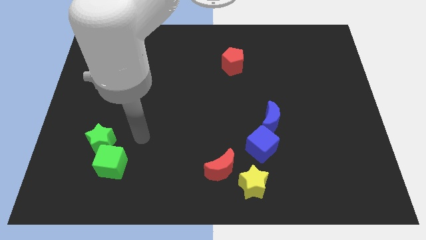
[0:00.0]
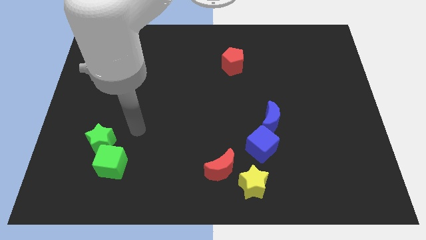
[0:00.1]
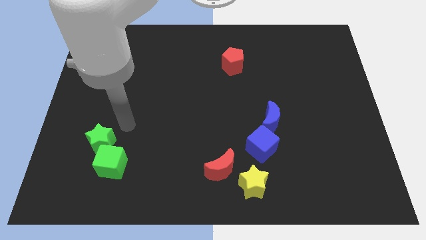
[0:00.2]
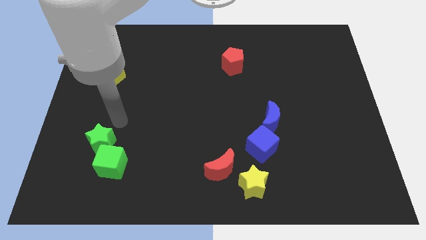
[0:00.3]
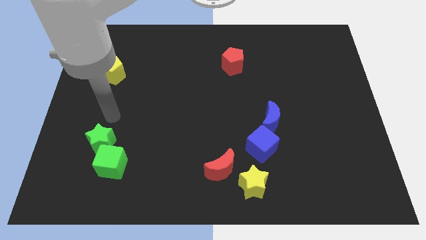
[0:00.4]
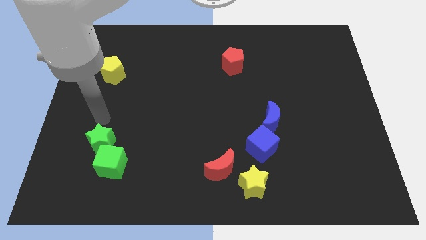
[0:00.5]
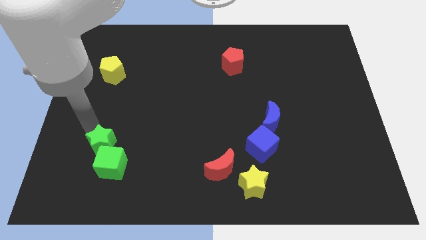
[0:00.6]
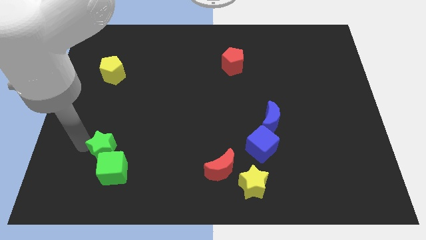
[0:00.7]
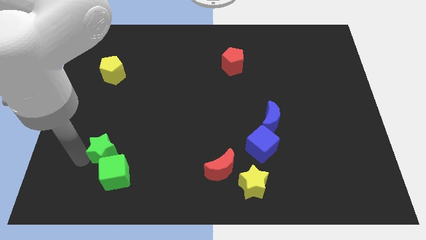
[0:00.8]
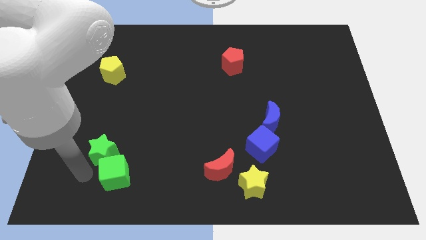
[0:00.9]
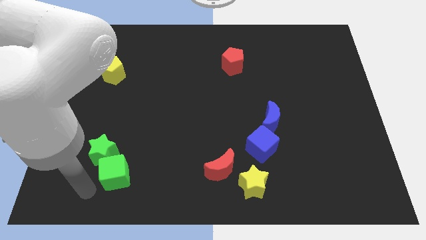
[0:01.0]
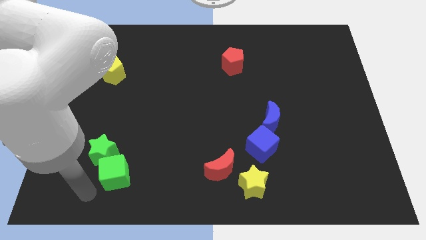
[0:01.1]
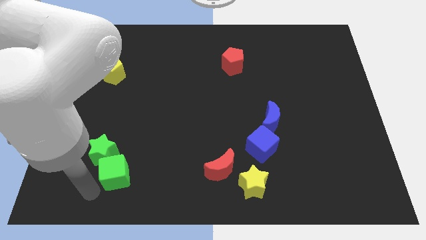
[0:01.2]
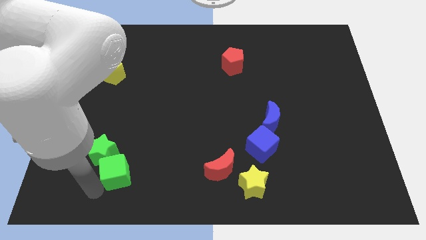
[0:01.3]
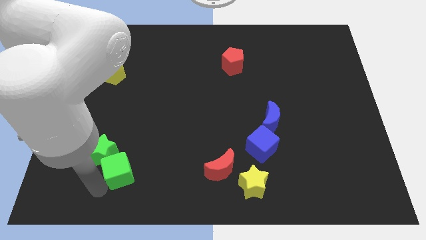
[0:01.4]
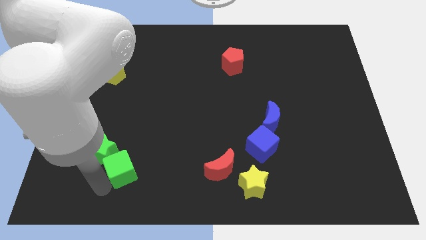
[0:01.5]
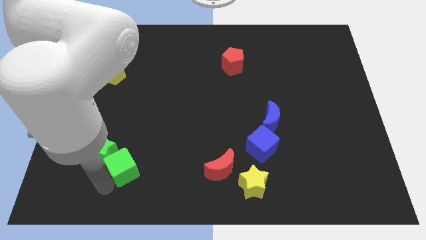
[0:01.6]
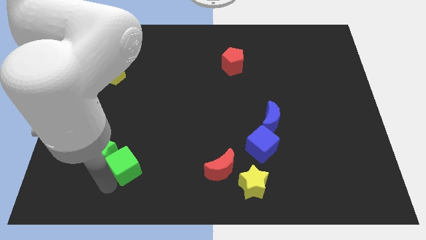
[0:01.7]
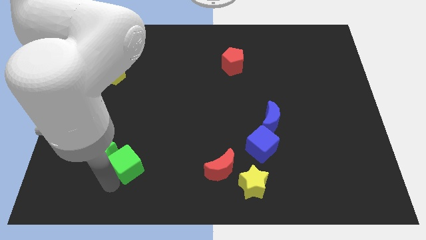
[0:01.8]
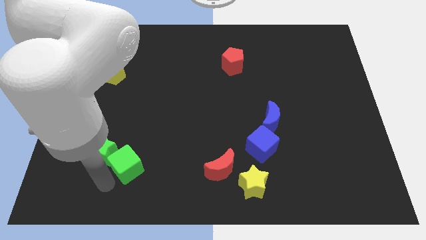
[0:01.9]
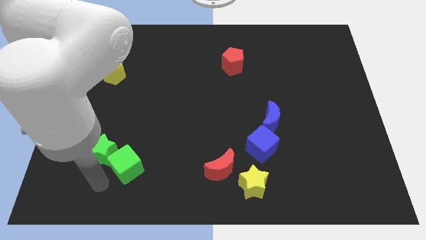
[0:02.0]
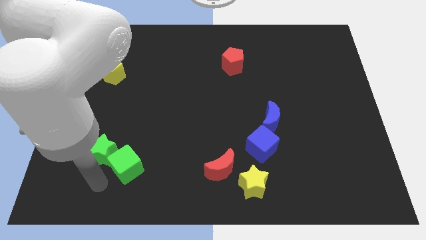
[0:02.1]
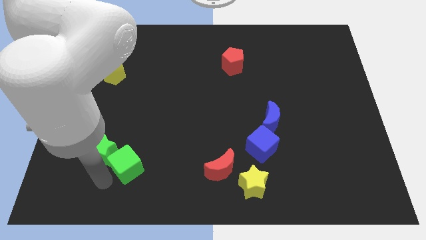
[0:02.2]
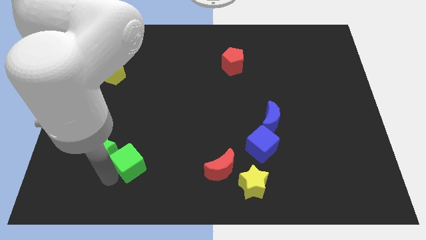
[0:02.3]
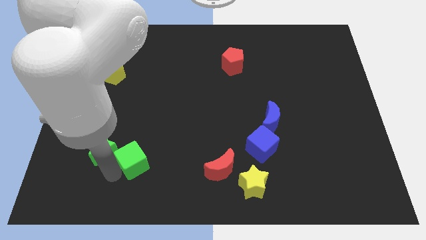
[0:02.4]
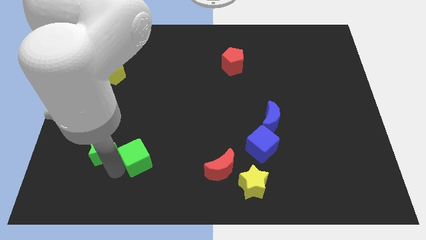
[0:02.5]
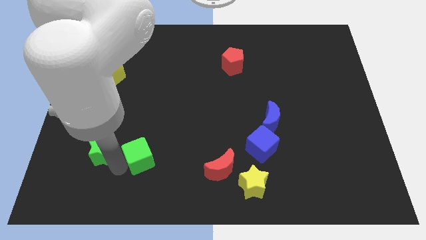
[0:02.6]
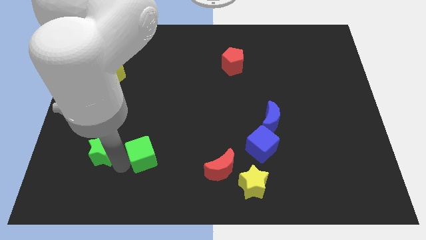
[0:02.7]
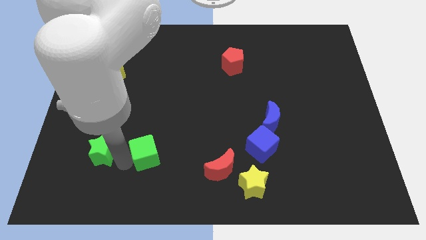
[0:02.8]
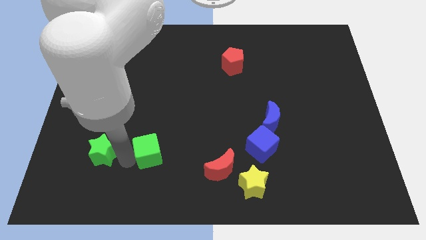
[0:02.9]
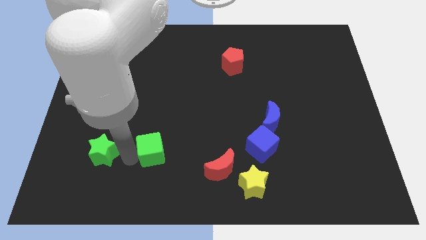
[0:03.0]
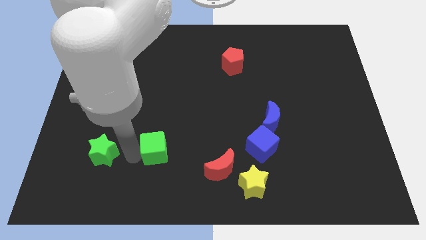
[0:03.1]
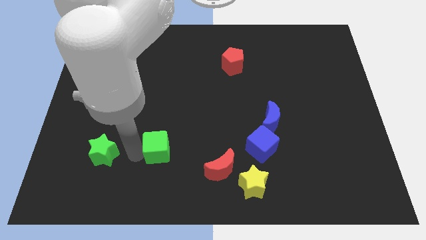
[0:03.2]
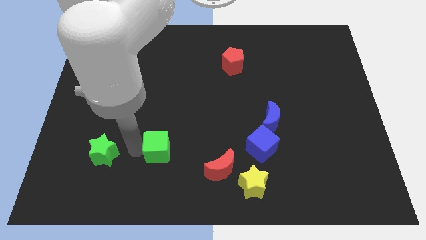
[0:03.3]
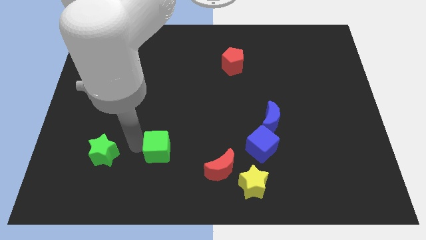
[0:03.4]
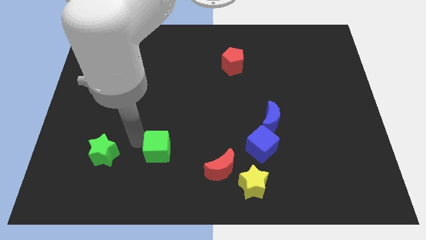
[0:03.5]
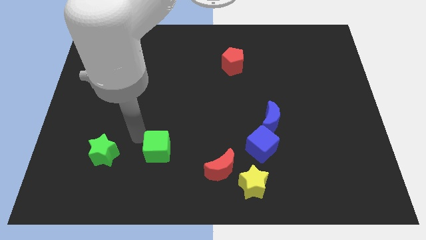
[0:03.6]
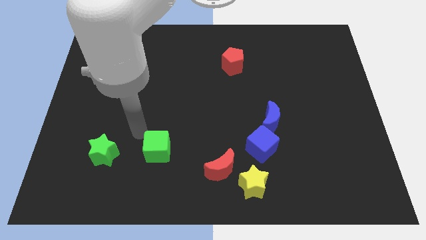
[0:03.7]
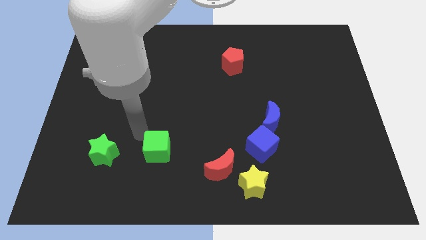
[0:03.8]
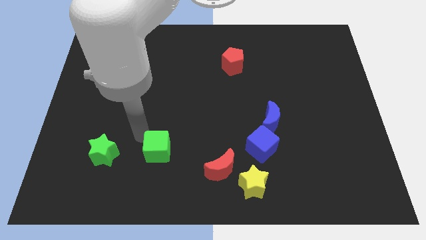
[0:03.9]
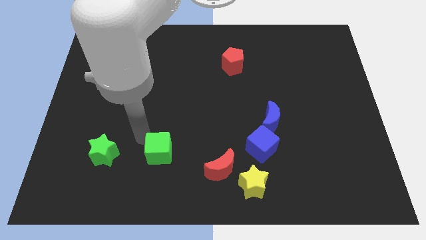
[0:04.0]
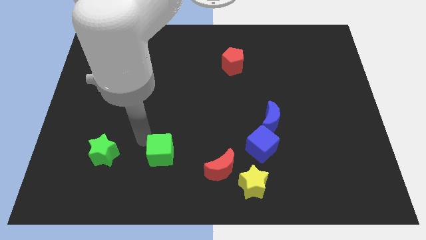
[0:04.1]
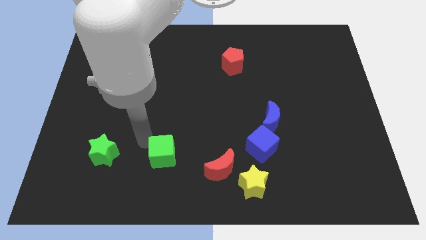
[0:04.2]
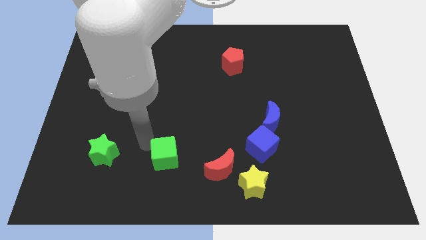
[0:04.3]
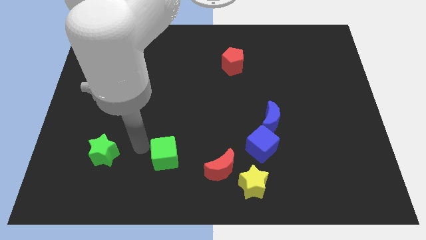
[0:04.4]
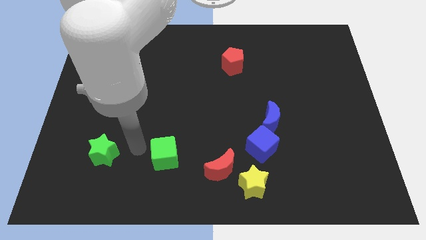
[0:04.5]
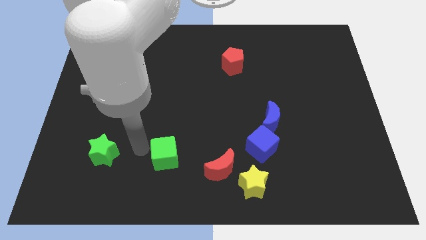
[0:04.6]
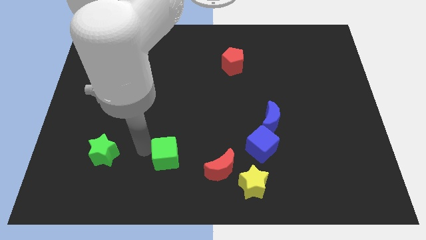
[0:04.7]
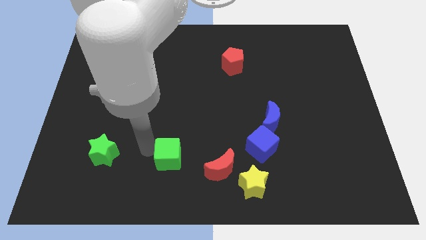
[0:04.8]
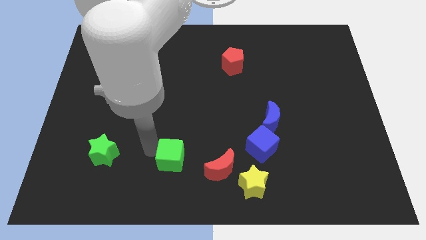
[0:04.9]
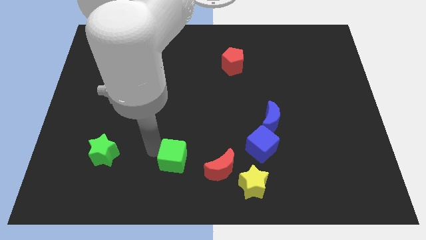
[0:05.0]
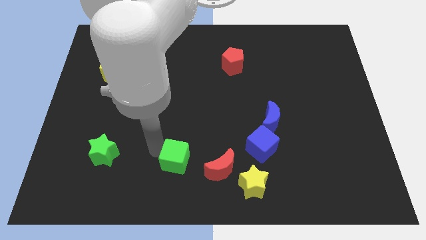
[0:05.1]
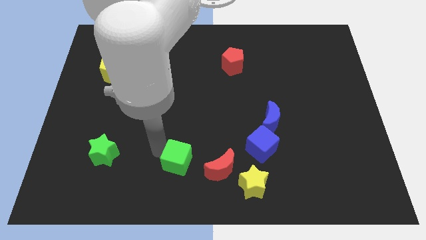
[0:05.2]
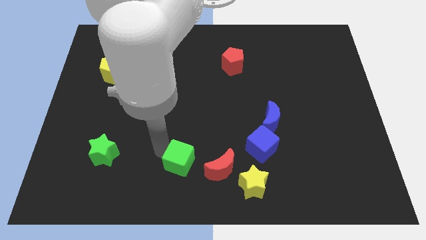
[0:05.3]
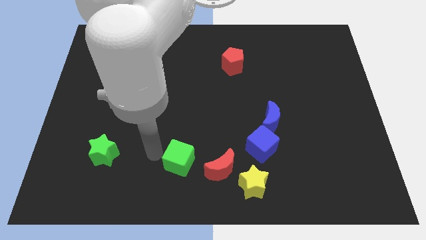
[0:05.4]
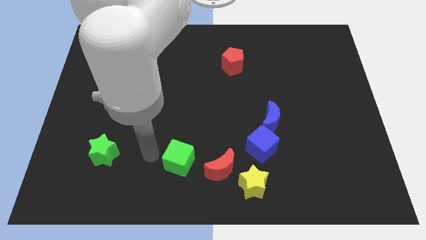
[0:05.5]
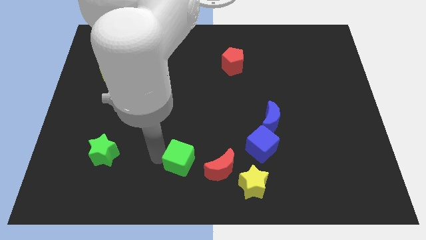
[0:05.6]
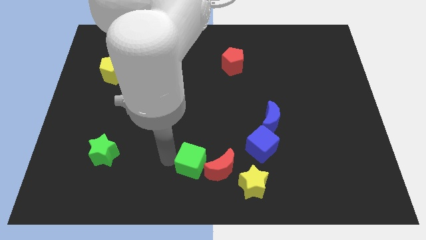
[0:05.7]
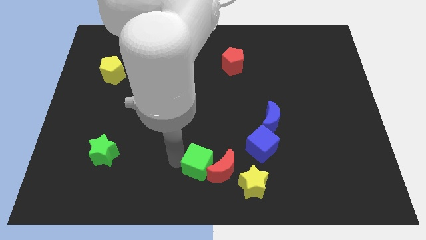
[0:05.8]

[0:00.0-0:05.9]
push the green cube to the red moon

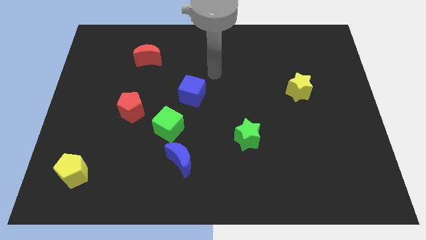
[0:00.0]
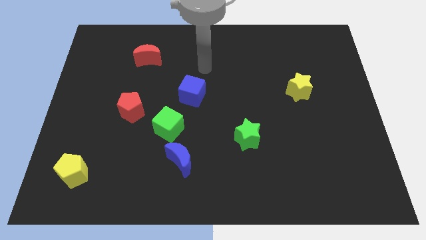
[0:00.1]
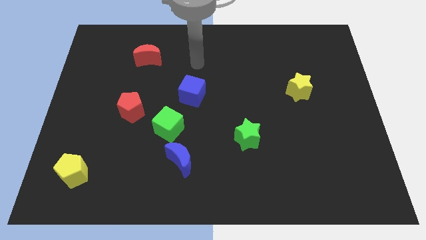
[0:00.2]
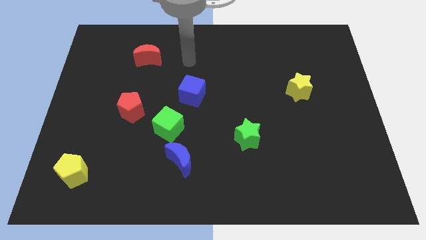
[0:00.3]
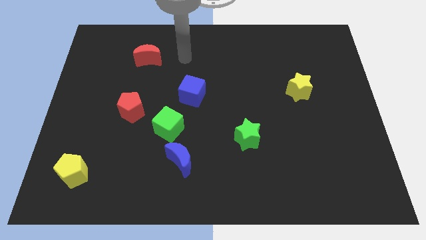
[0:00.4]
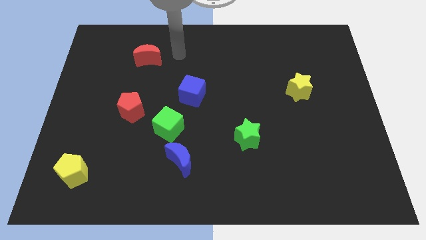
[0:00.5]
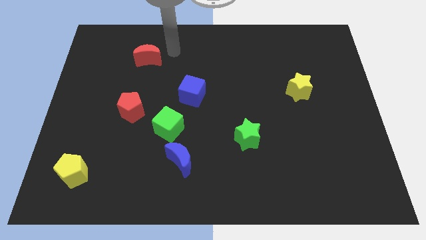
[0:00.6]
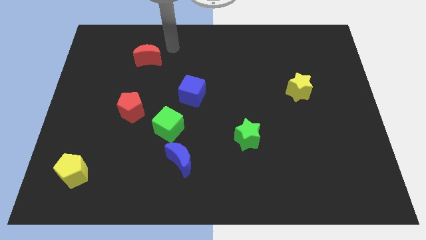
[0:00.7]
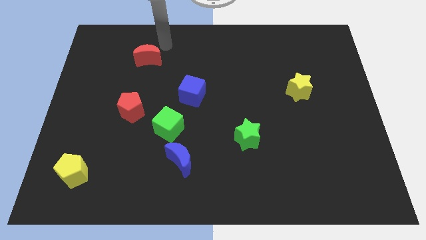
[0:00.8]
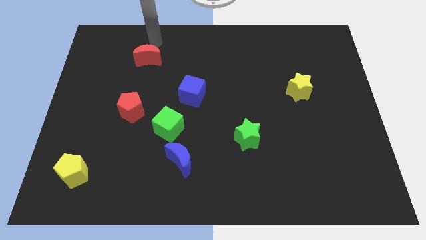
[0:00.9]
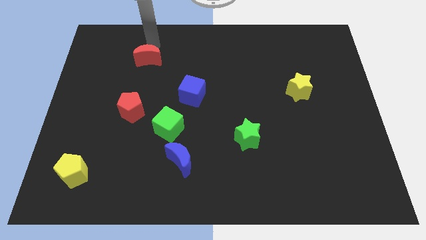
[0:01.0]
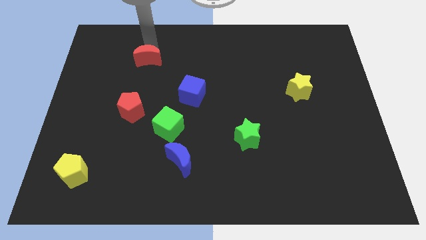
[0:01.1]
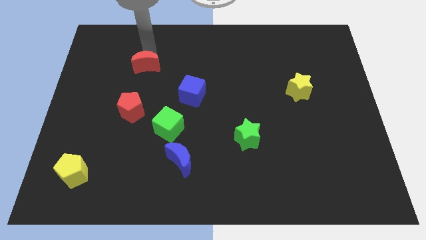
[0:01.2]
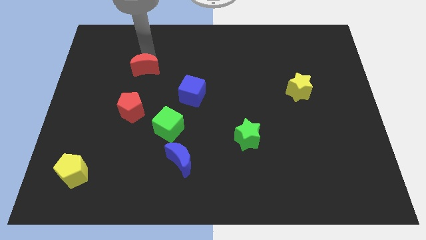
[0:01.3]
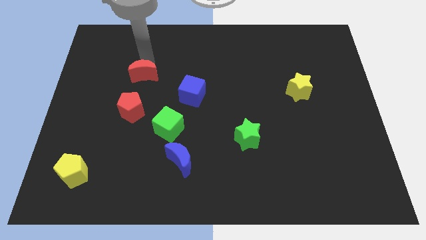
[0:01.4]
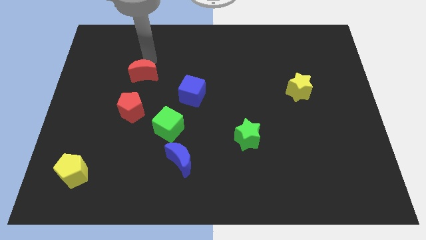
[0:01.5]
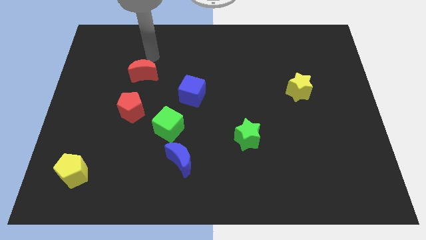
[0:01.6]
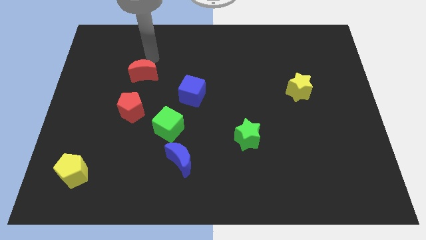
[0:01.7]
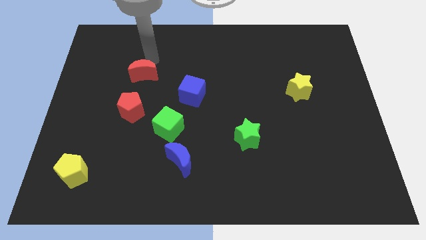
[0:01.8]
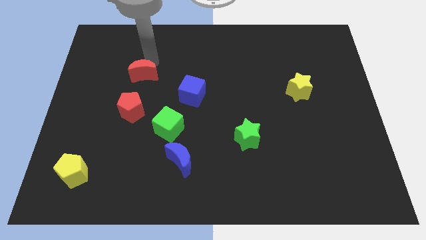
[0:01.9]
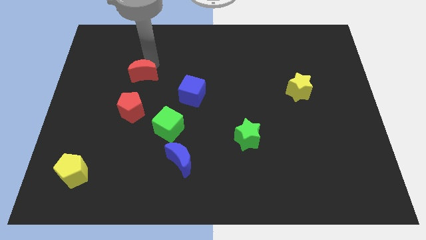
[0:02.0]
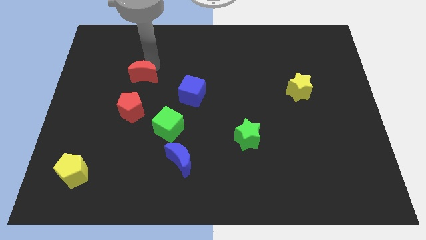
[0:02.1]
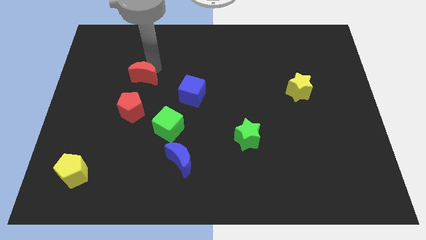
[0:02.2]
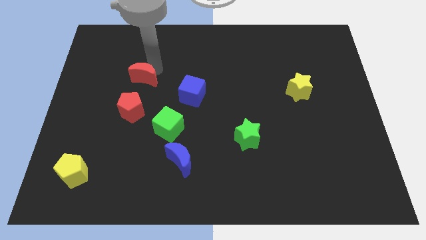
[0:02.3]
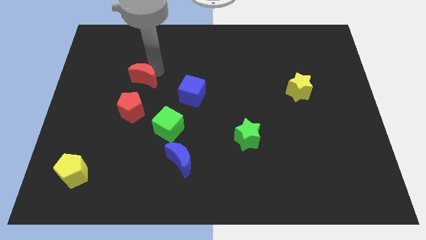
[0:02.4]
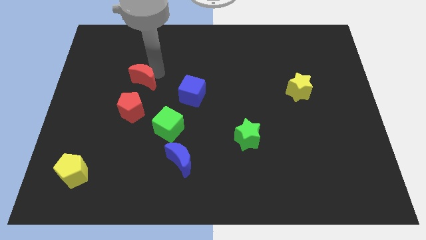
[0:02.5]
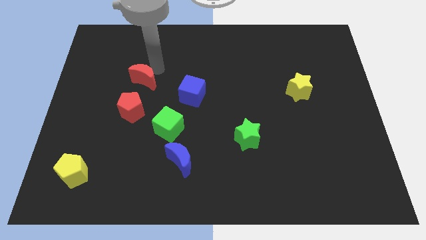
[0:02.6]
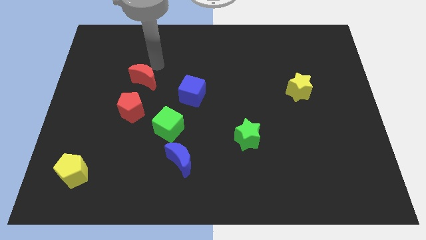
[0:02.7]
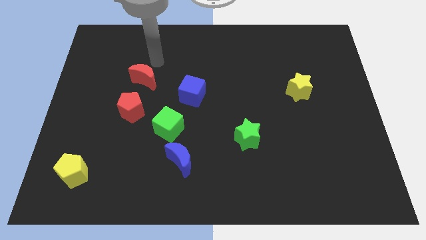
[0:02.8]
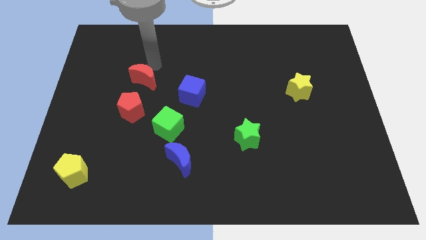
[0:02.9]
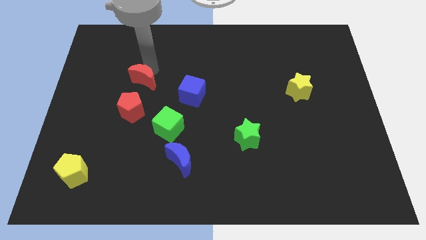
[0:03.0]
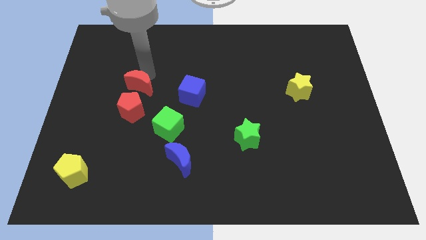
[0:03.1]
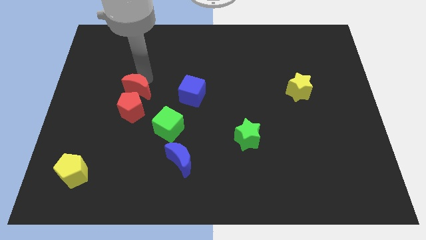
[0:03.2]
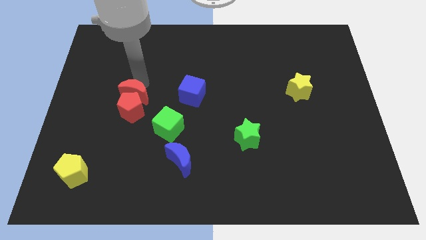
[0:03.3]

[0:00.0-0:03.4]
push the red moon next to the red pentagon
